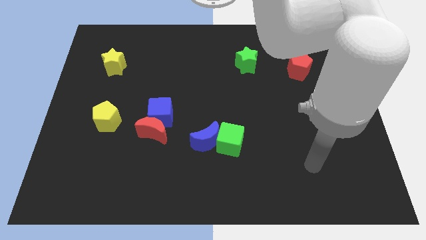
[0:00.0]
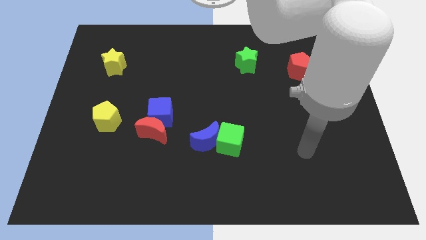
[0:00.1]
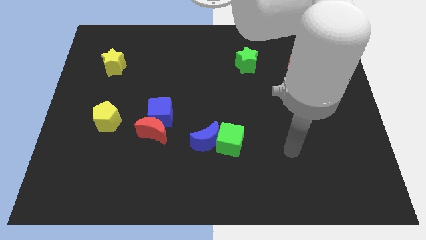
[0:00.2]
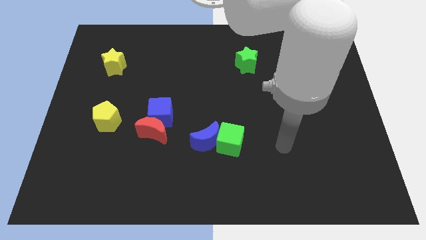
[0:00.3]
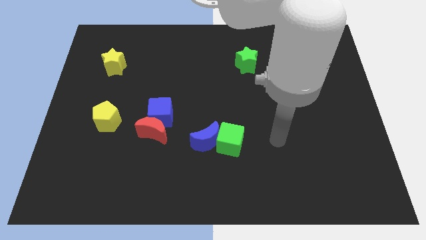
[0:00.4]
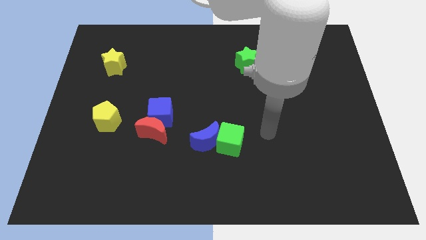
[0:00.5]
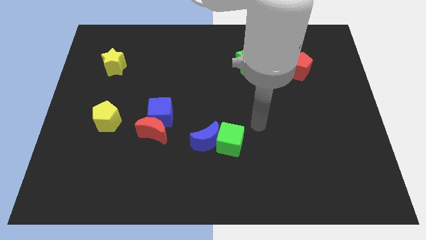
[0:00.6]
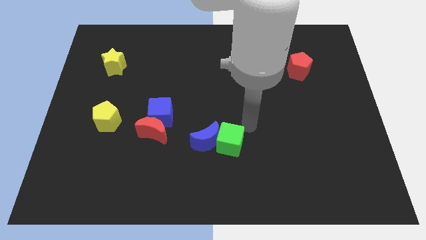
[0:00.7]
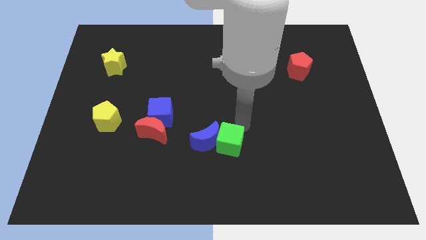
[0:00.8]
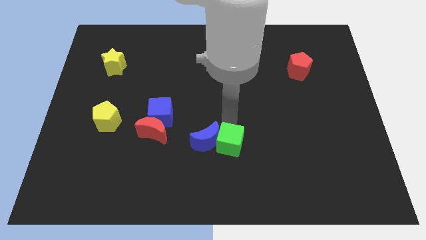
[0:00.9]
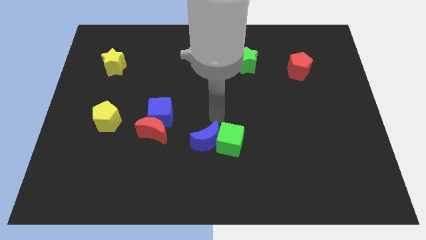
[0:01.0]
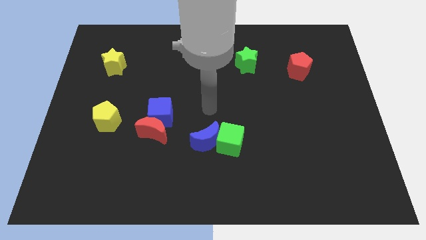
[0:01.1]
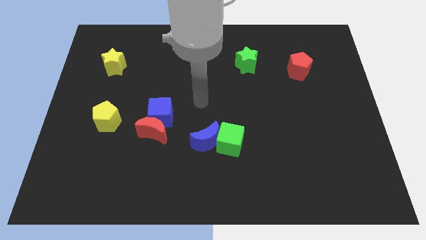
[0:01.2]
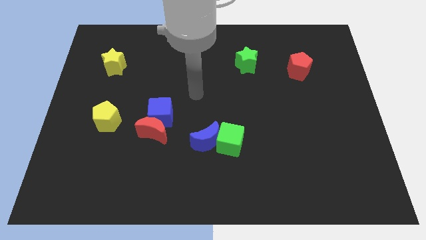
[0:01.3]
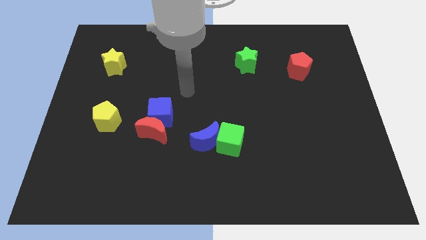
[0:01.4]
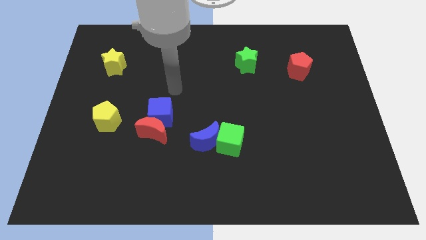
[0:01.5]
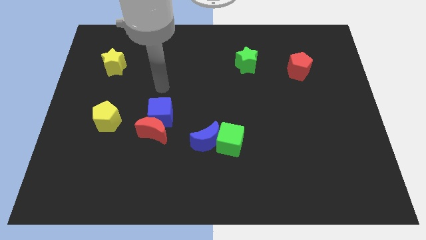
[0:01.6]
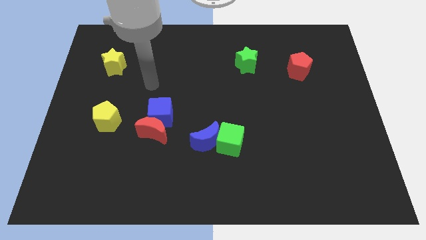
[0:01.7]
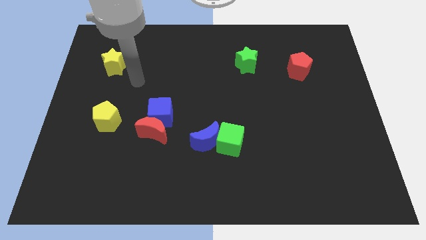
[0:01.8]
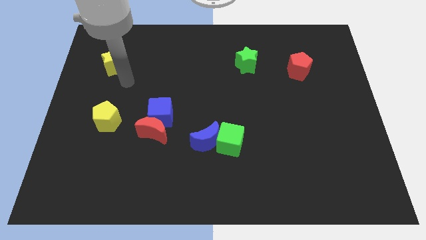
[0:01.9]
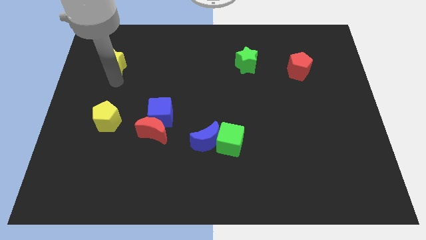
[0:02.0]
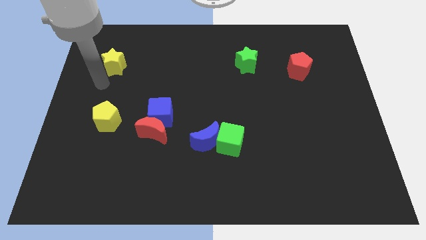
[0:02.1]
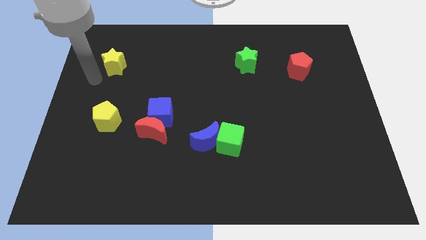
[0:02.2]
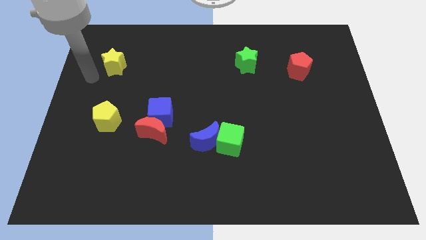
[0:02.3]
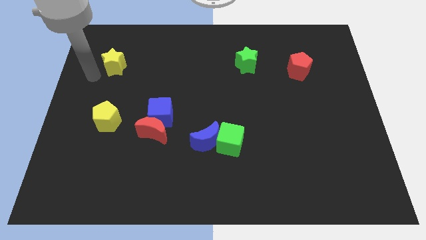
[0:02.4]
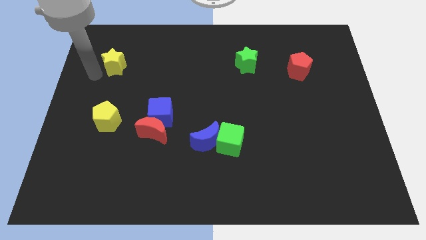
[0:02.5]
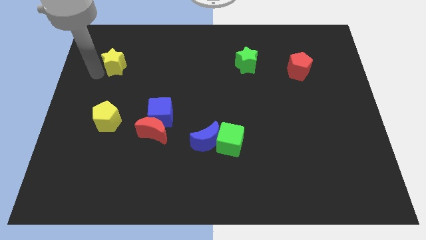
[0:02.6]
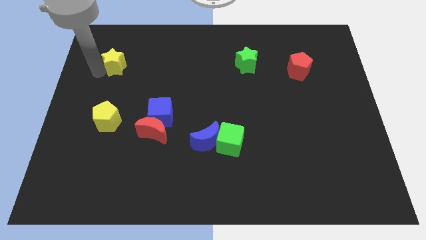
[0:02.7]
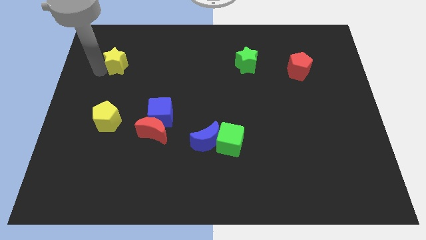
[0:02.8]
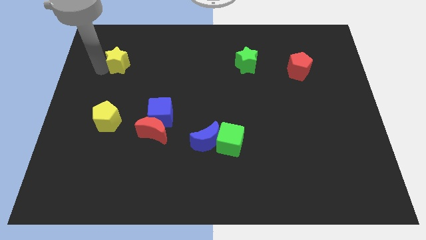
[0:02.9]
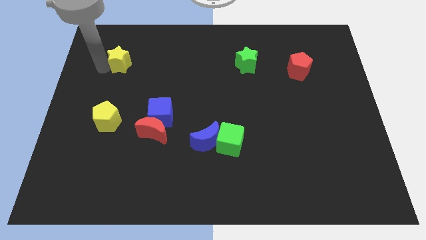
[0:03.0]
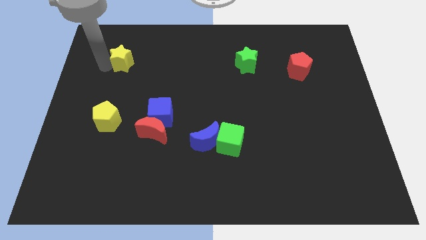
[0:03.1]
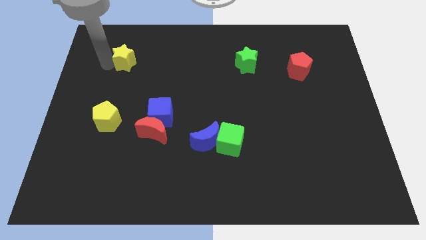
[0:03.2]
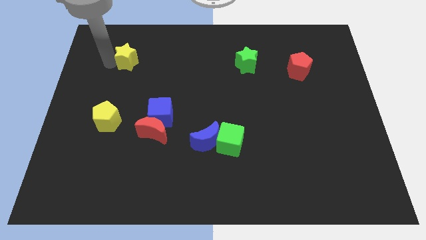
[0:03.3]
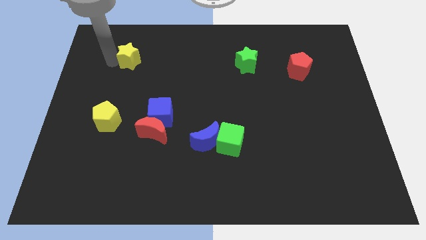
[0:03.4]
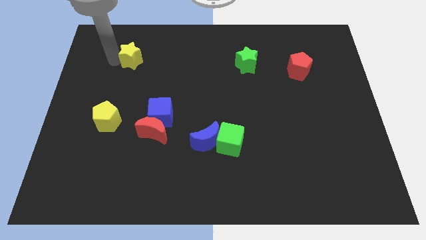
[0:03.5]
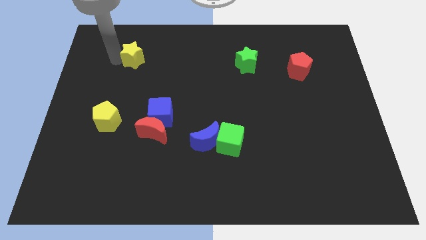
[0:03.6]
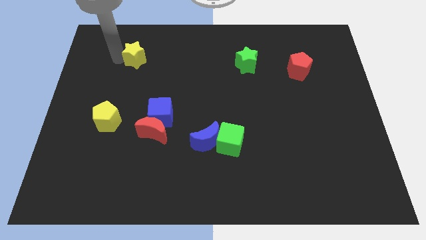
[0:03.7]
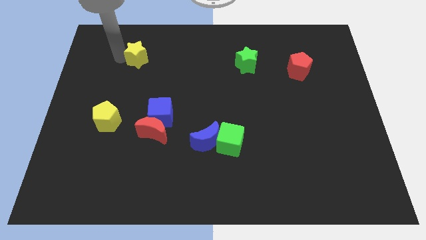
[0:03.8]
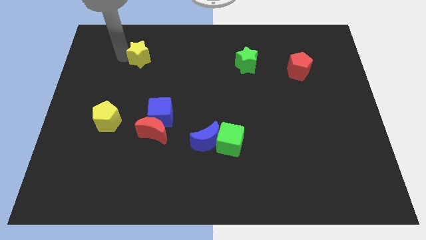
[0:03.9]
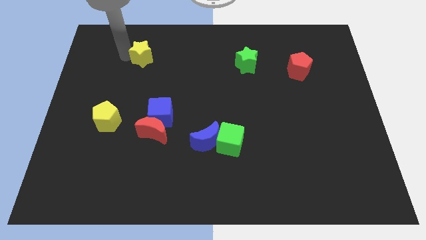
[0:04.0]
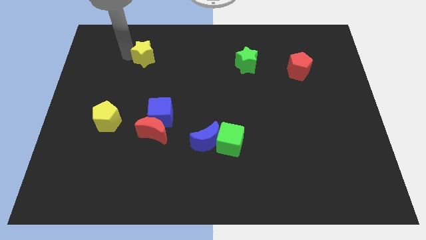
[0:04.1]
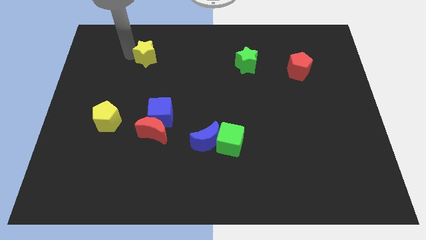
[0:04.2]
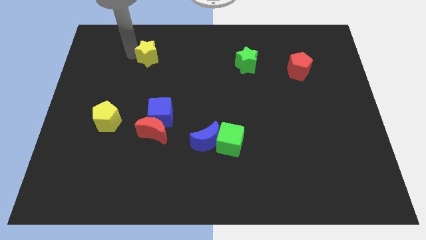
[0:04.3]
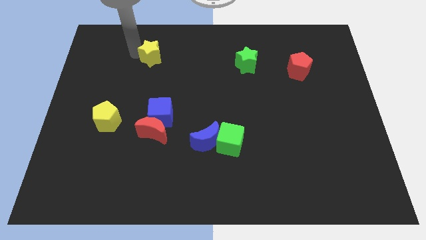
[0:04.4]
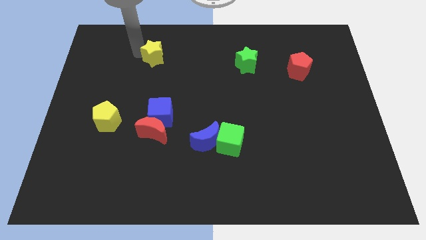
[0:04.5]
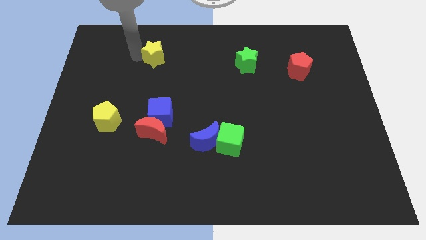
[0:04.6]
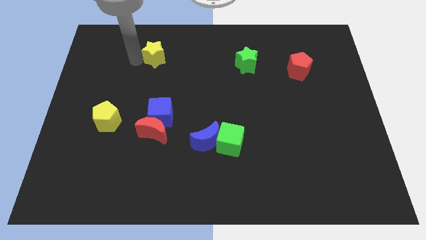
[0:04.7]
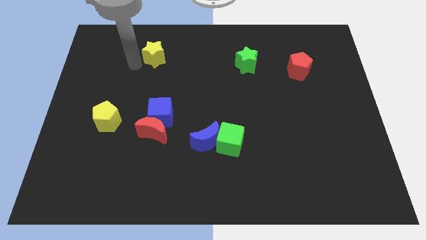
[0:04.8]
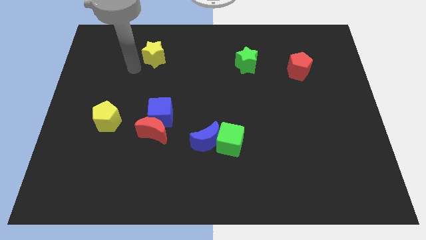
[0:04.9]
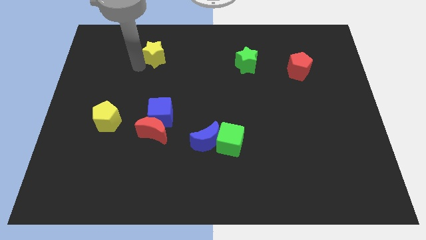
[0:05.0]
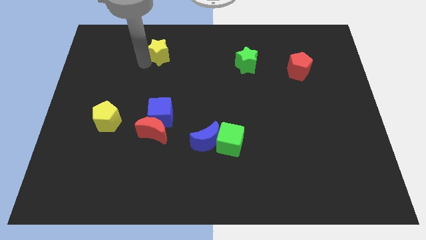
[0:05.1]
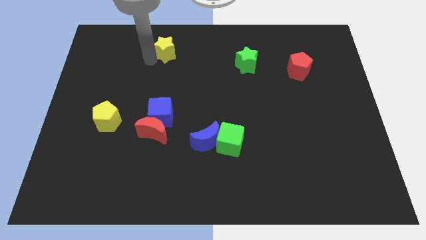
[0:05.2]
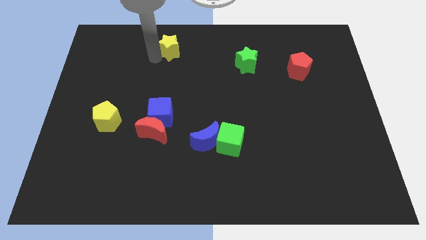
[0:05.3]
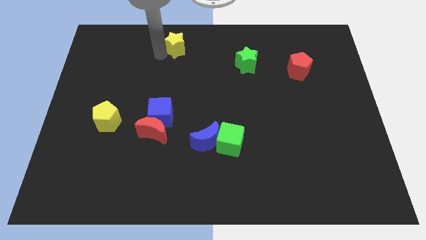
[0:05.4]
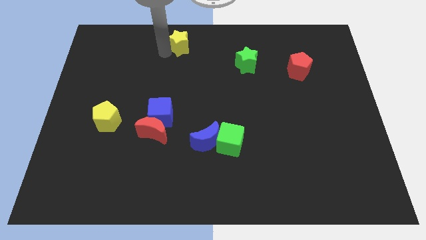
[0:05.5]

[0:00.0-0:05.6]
push the yellow star to the top
